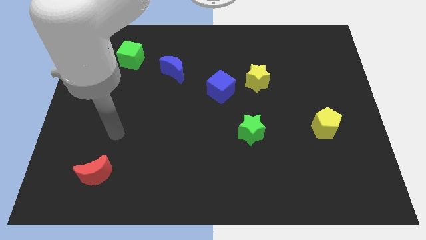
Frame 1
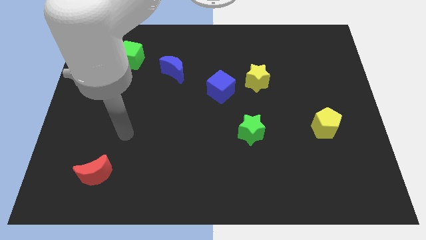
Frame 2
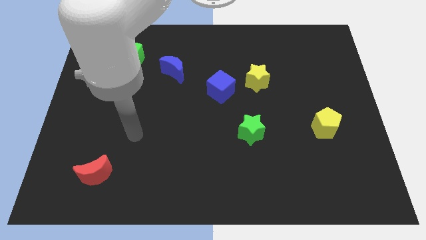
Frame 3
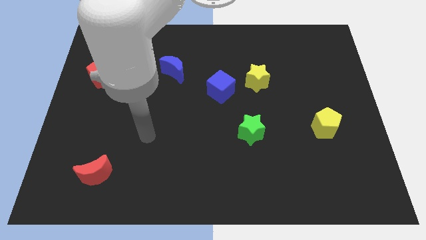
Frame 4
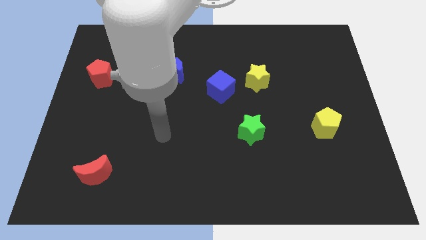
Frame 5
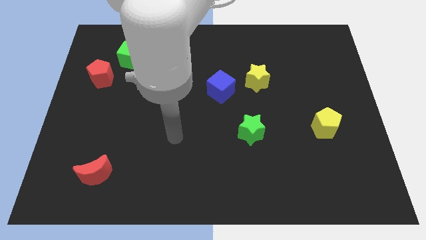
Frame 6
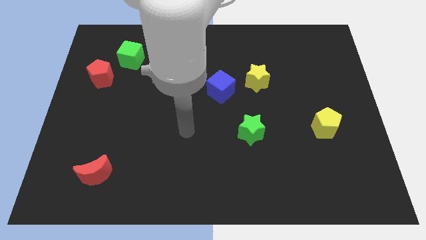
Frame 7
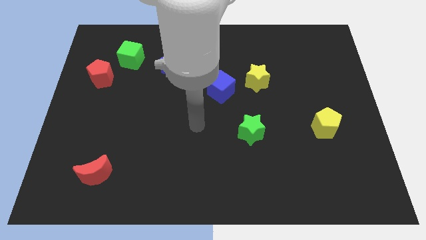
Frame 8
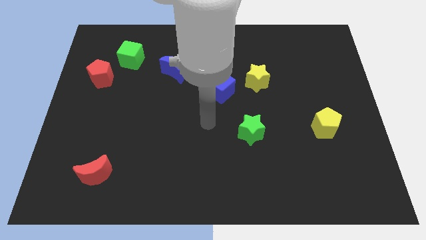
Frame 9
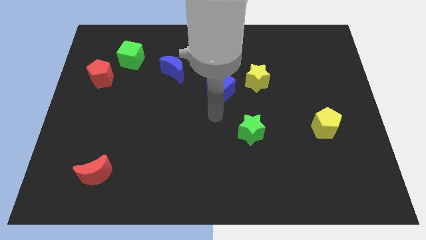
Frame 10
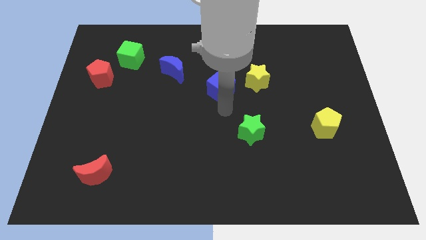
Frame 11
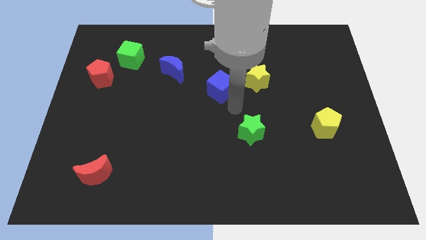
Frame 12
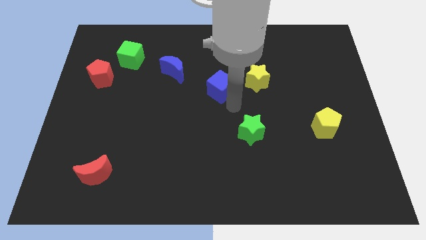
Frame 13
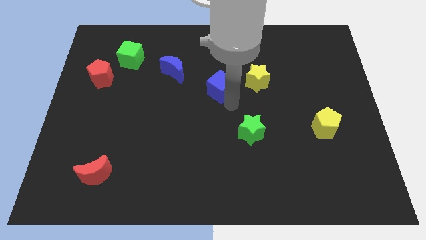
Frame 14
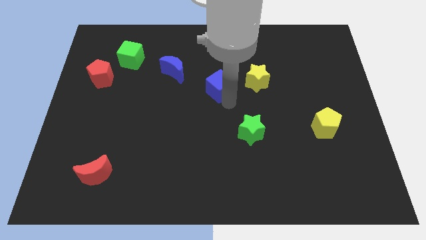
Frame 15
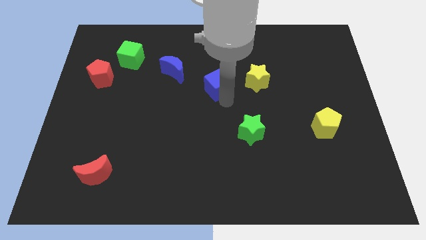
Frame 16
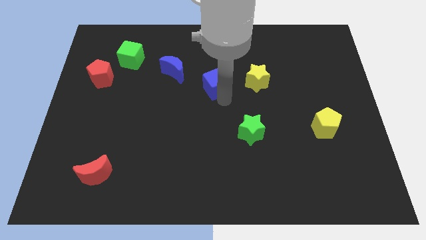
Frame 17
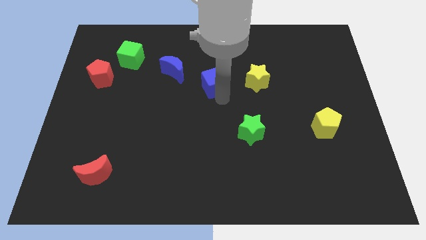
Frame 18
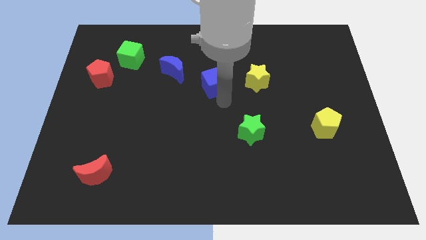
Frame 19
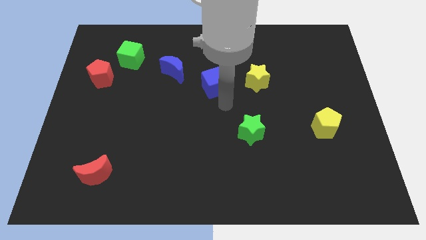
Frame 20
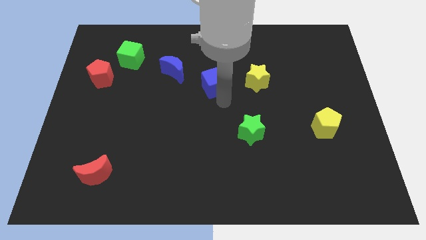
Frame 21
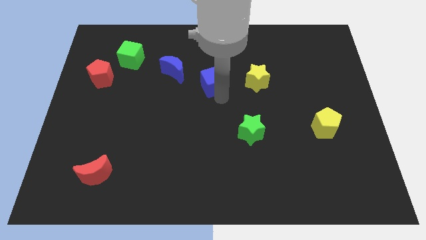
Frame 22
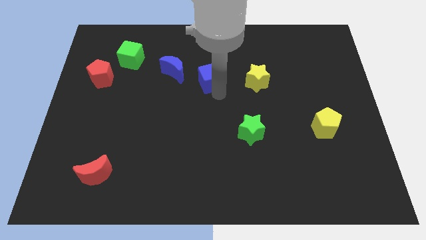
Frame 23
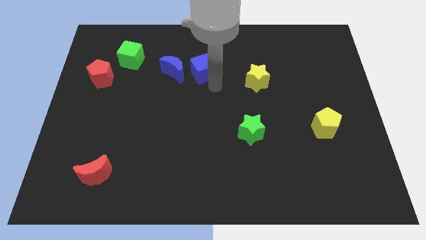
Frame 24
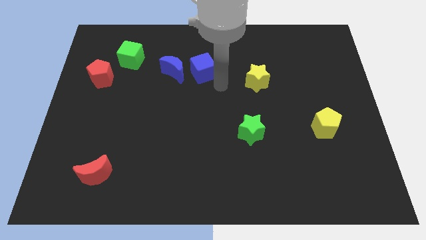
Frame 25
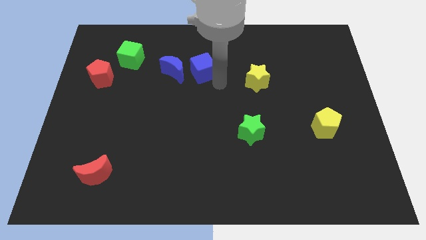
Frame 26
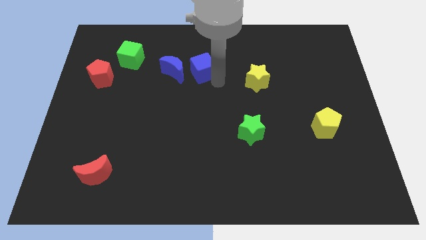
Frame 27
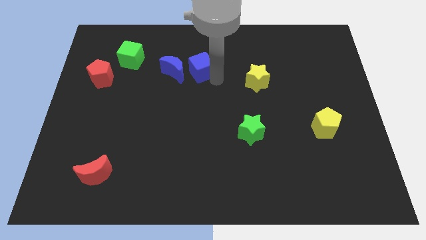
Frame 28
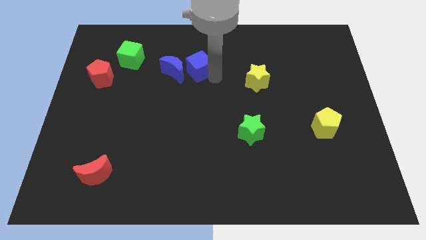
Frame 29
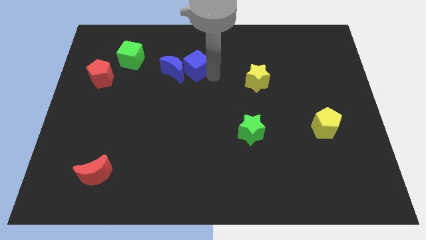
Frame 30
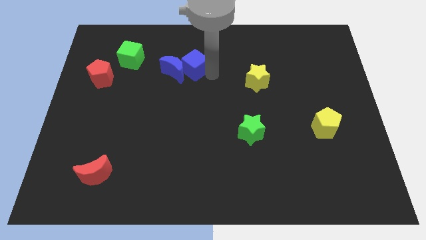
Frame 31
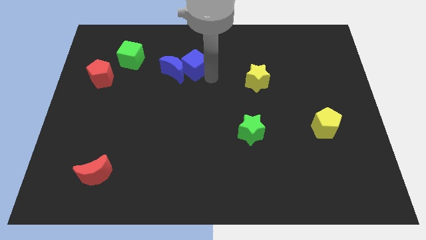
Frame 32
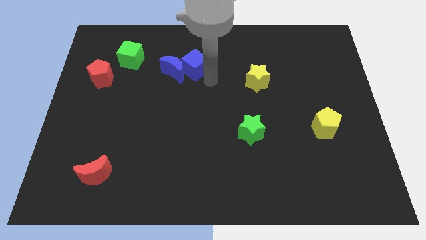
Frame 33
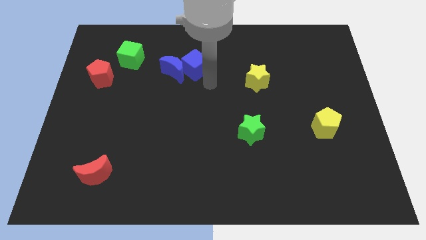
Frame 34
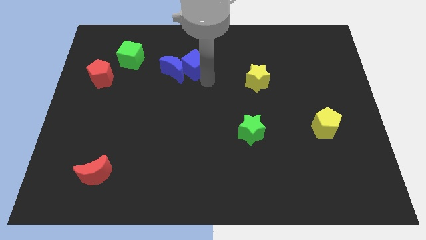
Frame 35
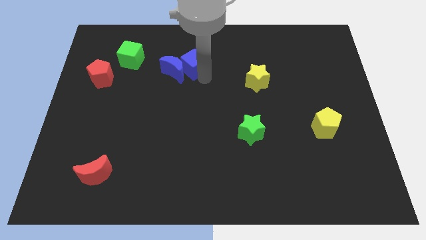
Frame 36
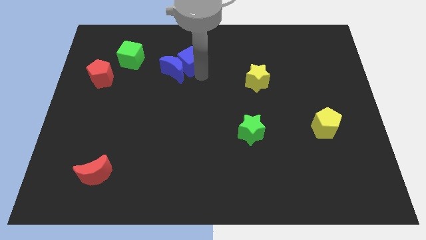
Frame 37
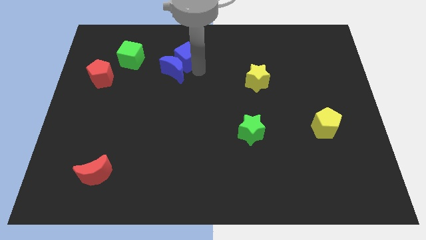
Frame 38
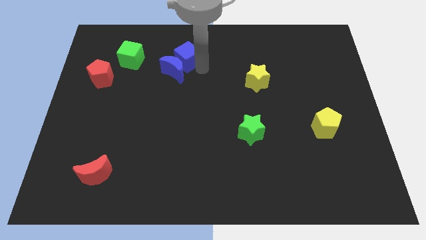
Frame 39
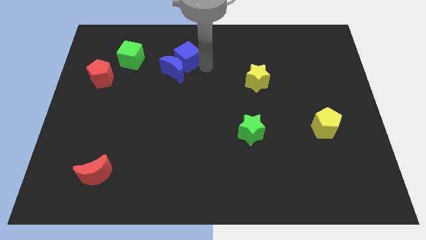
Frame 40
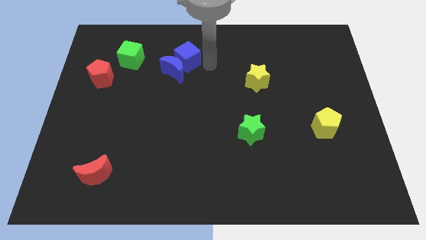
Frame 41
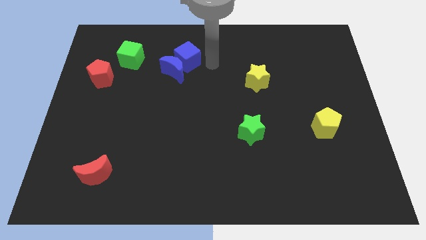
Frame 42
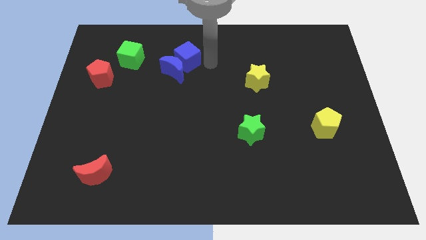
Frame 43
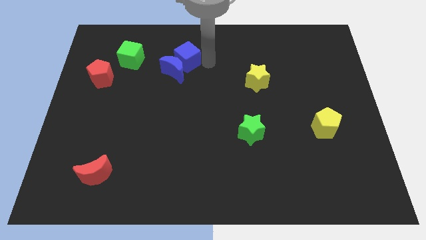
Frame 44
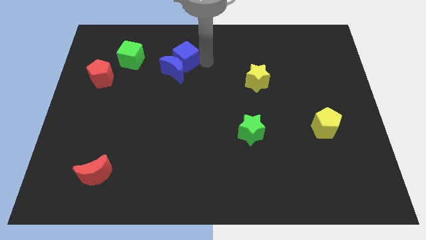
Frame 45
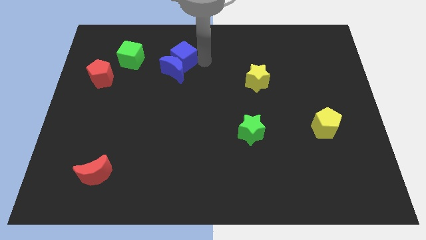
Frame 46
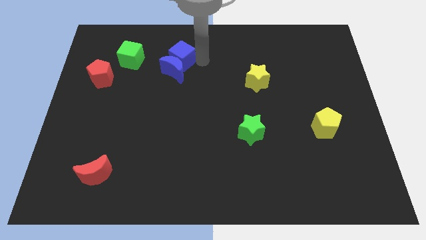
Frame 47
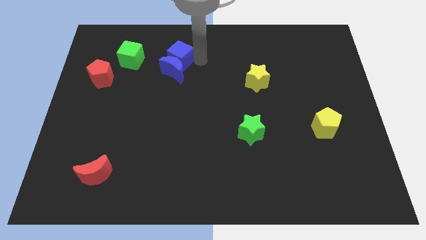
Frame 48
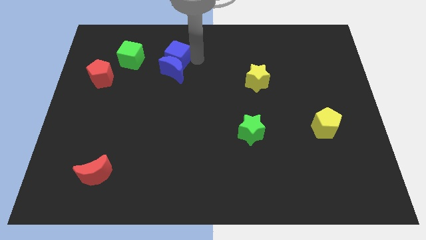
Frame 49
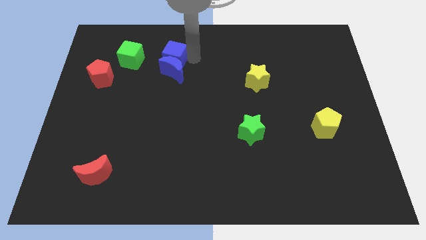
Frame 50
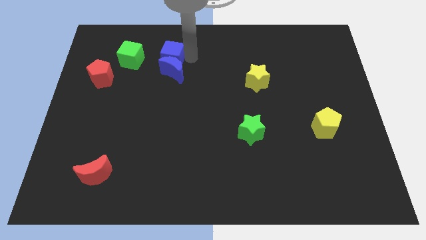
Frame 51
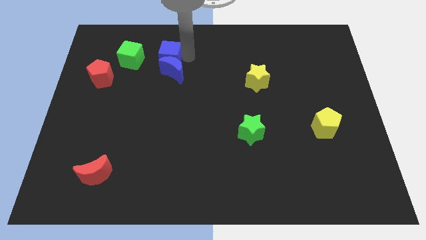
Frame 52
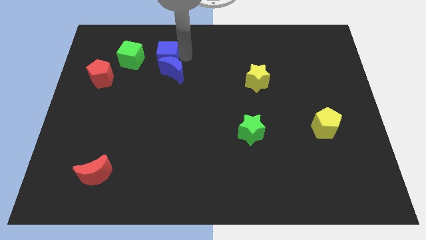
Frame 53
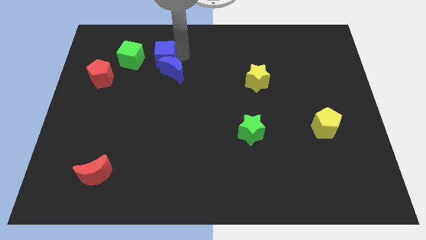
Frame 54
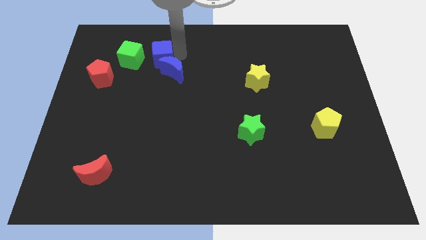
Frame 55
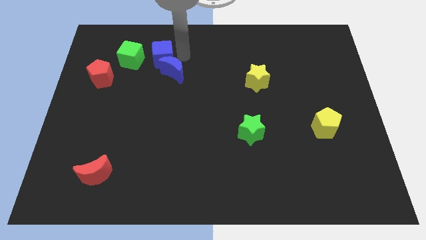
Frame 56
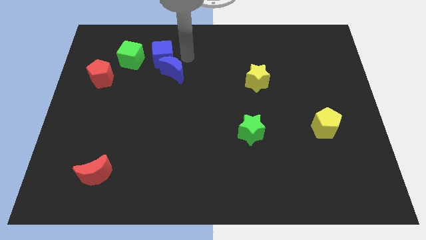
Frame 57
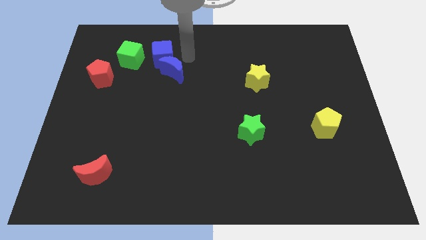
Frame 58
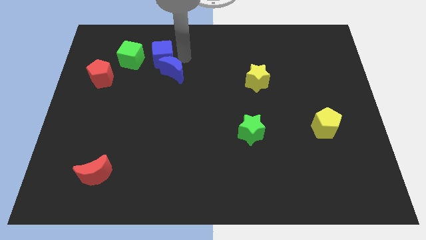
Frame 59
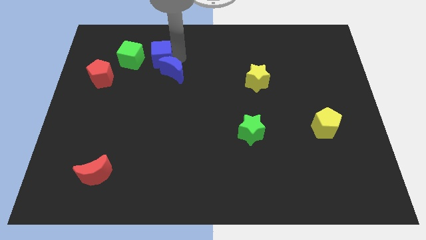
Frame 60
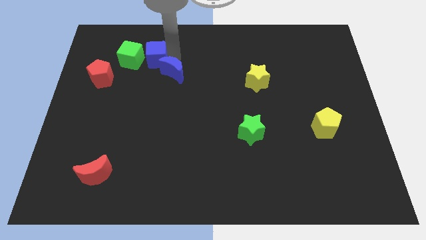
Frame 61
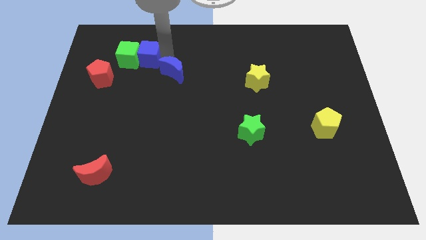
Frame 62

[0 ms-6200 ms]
slide the blue cube next to the green cube

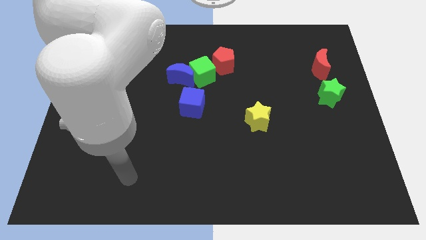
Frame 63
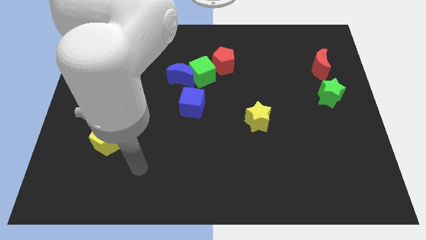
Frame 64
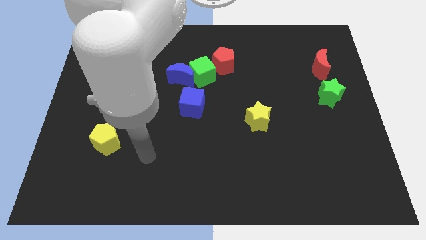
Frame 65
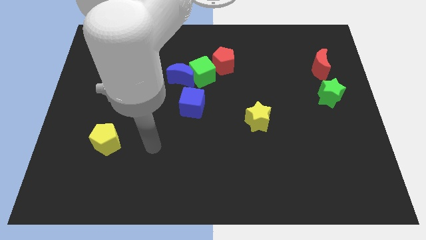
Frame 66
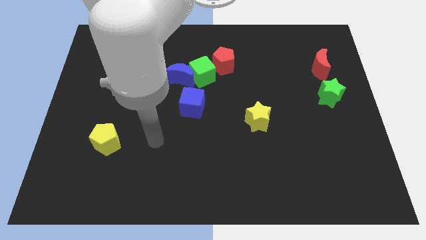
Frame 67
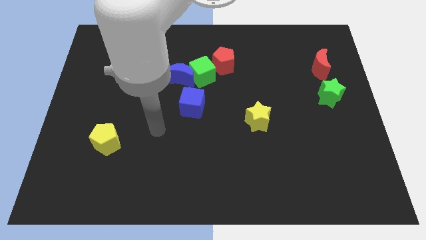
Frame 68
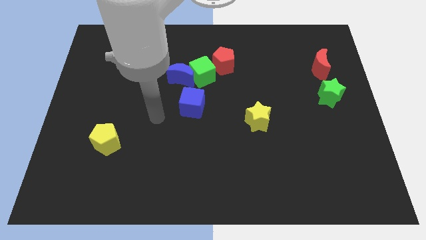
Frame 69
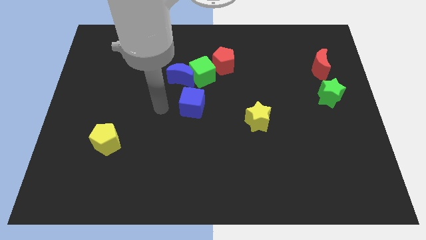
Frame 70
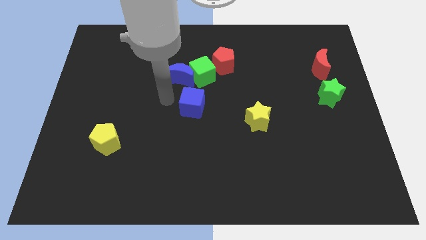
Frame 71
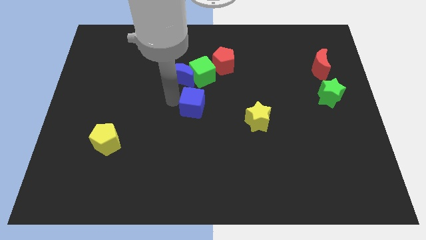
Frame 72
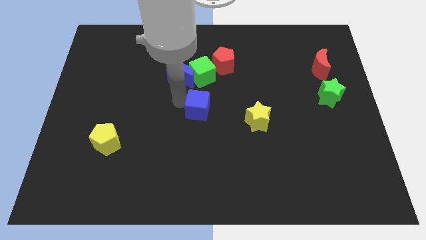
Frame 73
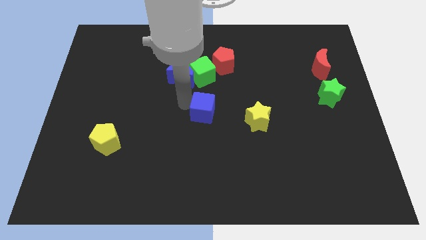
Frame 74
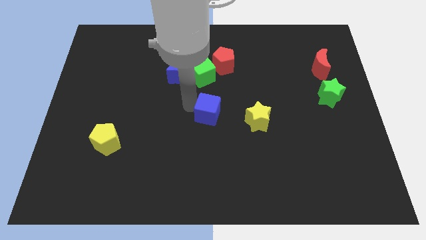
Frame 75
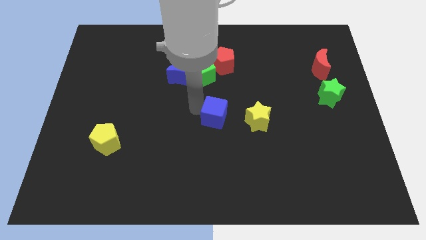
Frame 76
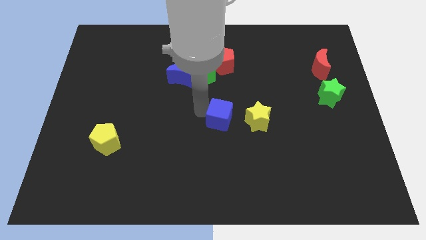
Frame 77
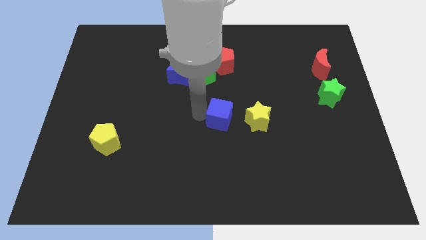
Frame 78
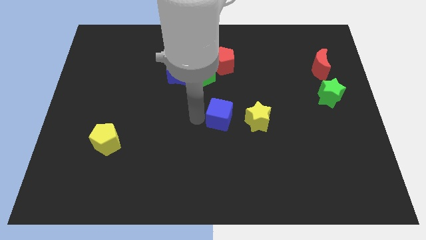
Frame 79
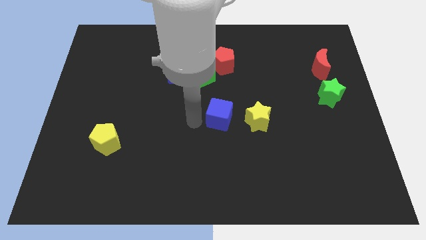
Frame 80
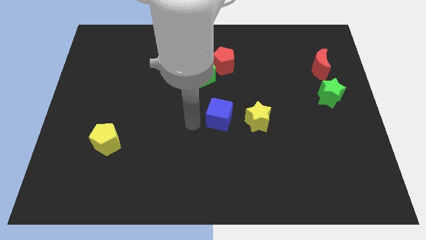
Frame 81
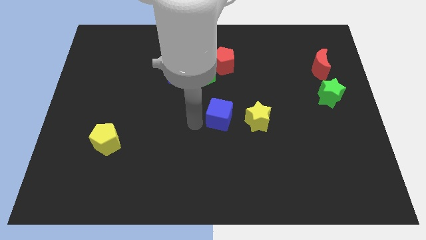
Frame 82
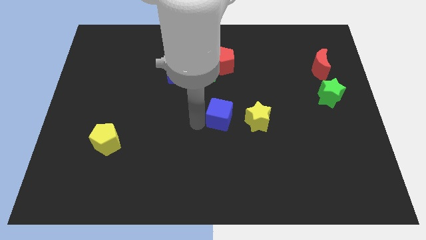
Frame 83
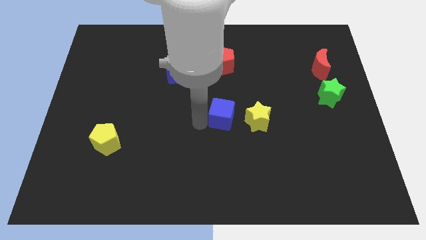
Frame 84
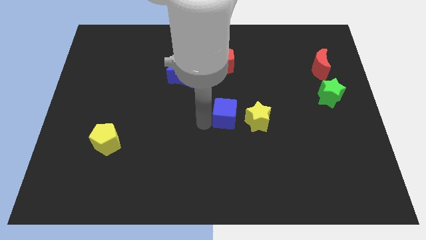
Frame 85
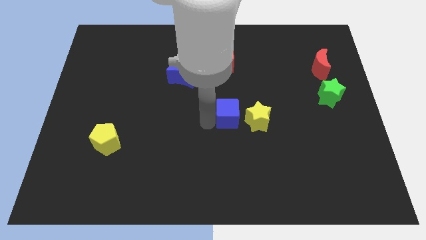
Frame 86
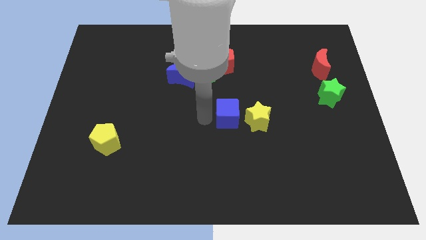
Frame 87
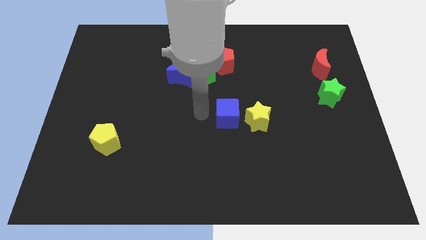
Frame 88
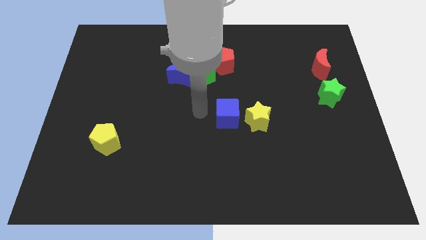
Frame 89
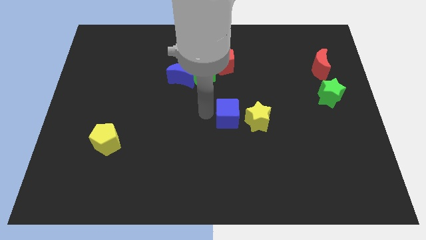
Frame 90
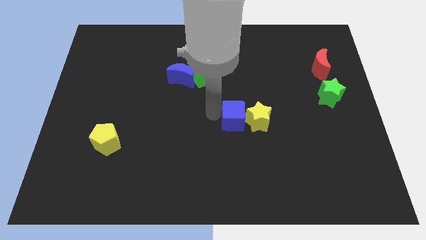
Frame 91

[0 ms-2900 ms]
push the blue cube towards the yellow star
